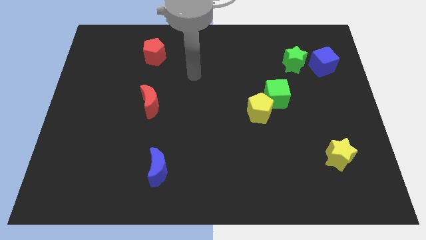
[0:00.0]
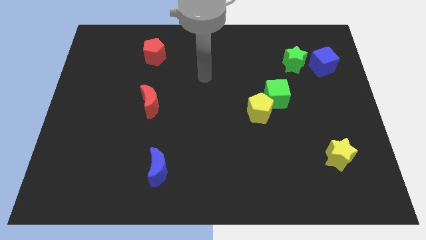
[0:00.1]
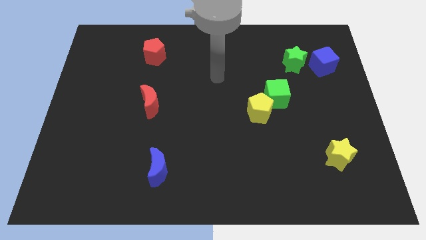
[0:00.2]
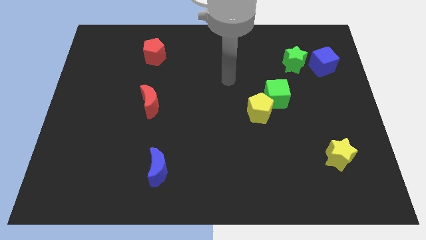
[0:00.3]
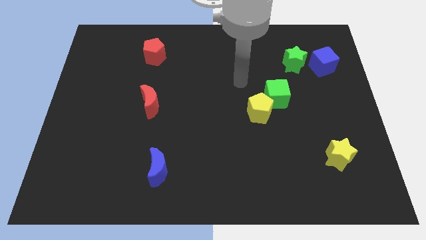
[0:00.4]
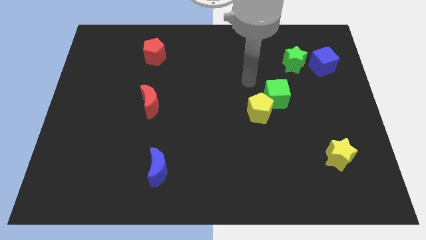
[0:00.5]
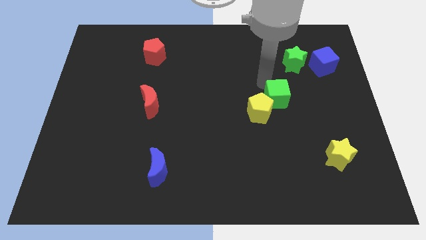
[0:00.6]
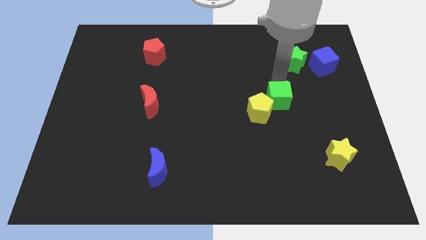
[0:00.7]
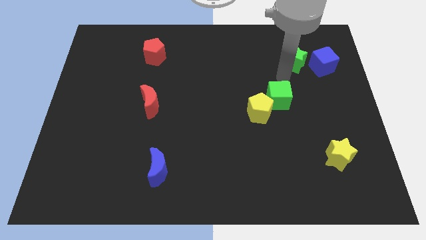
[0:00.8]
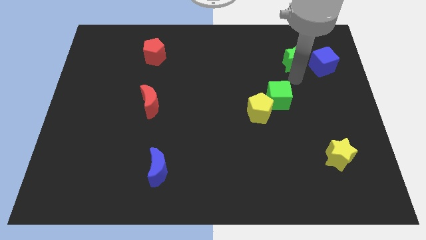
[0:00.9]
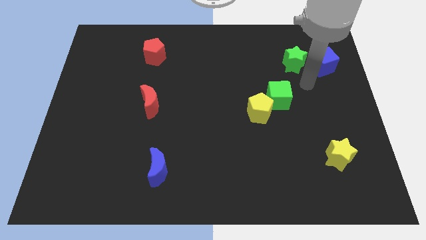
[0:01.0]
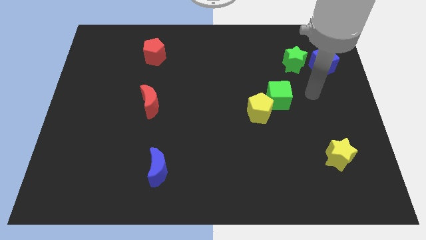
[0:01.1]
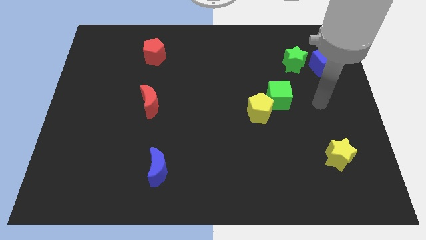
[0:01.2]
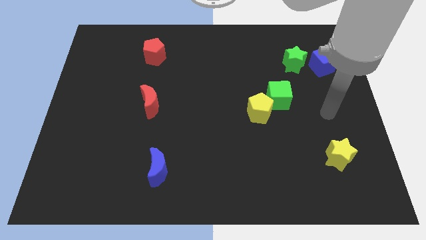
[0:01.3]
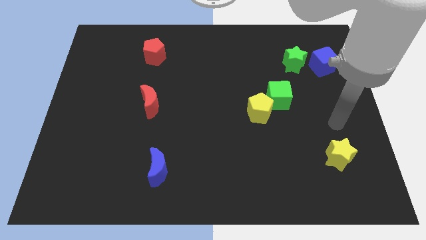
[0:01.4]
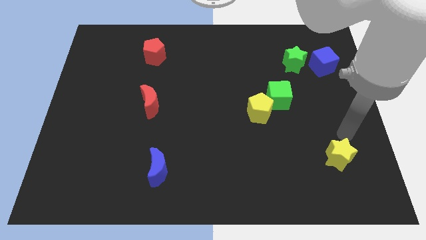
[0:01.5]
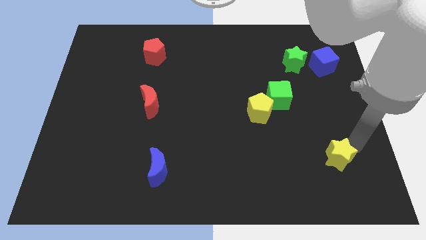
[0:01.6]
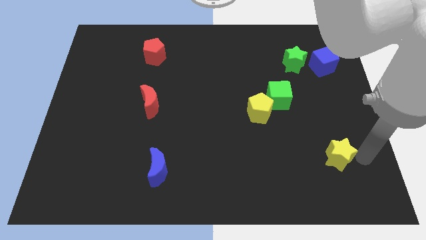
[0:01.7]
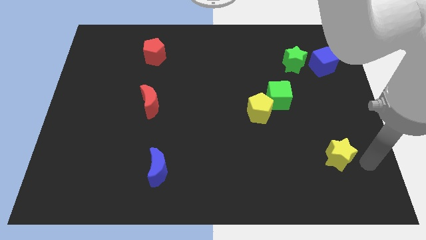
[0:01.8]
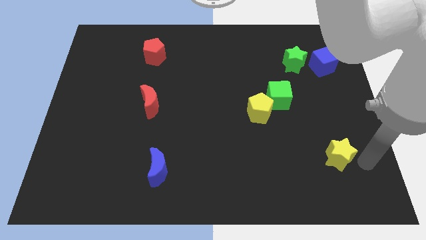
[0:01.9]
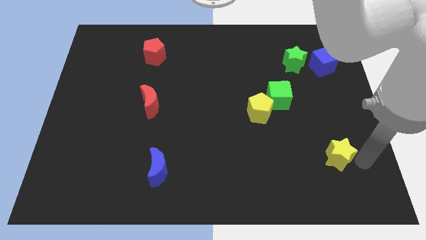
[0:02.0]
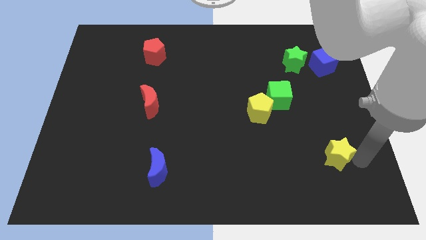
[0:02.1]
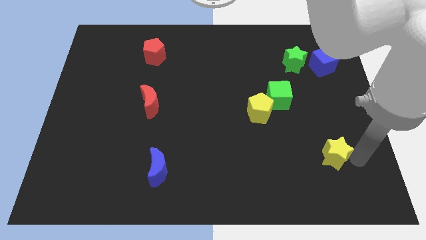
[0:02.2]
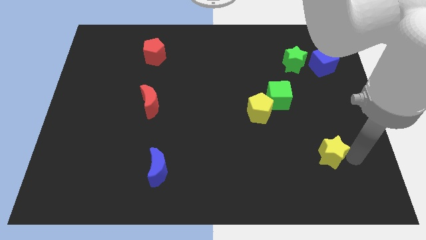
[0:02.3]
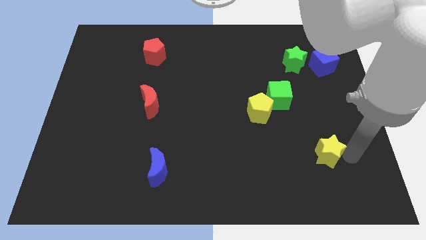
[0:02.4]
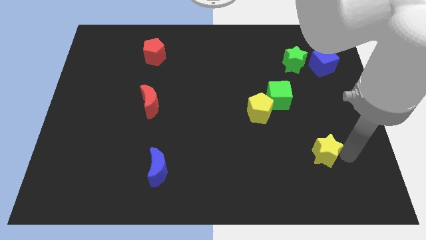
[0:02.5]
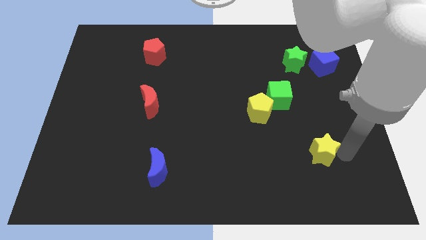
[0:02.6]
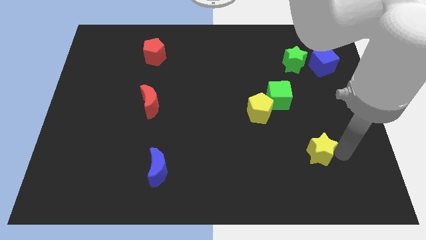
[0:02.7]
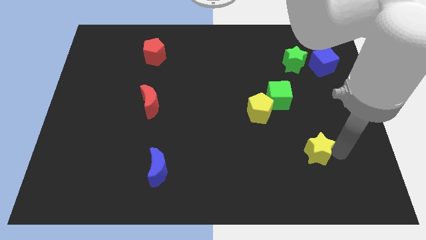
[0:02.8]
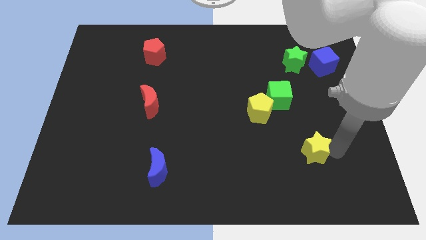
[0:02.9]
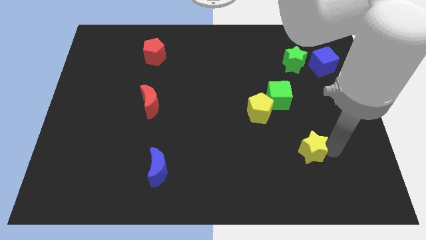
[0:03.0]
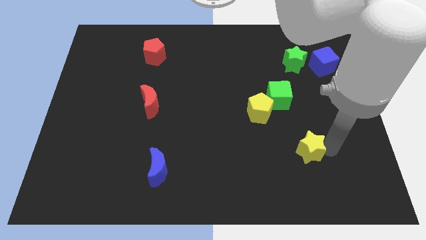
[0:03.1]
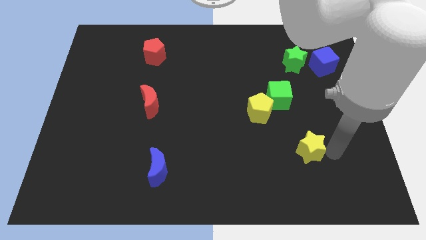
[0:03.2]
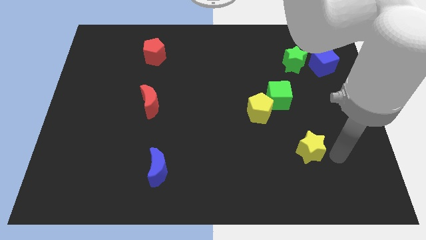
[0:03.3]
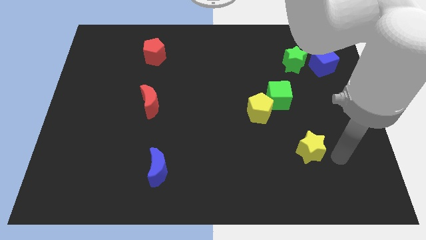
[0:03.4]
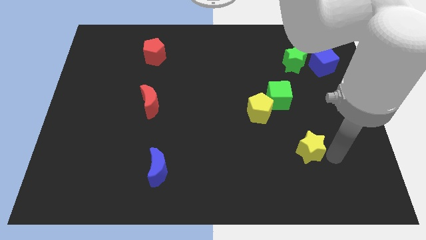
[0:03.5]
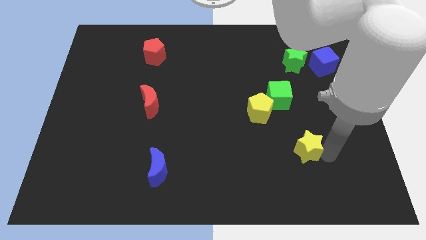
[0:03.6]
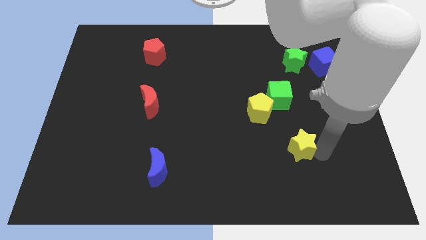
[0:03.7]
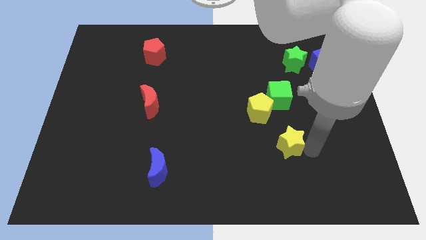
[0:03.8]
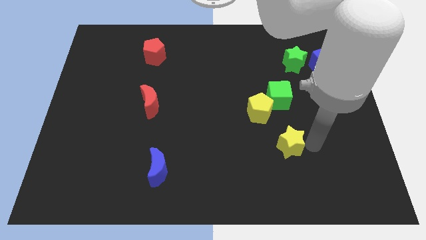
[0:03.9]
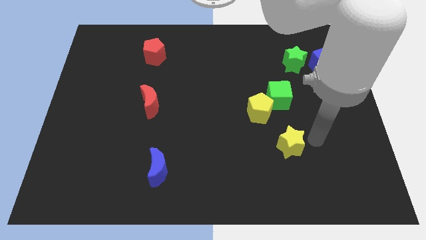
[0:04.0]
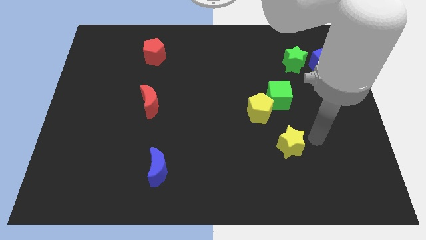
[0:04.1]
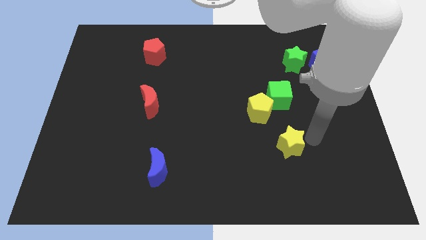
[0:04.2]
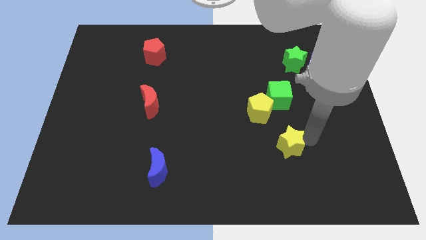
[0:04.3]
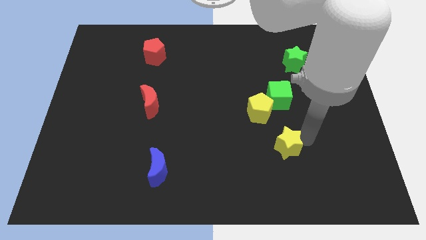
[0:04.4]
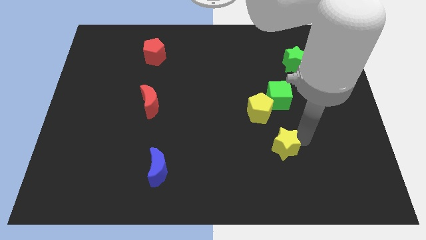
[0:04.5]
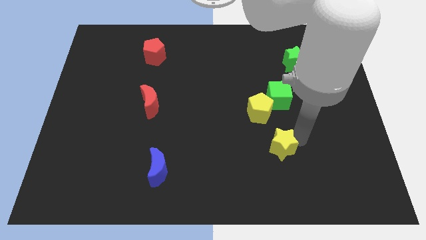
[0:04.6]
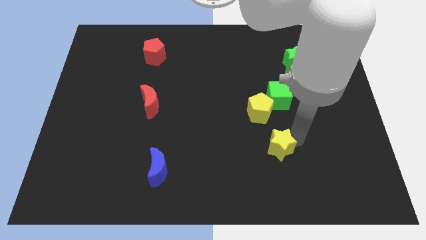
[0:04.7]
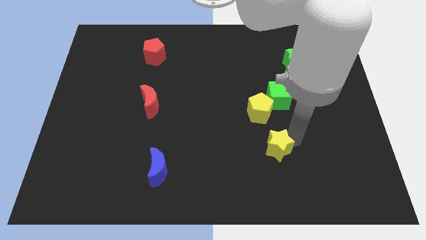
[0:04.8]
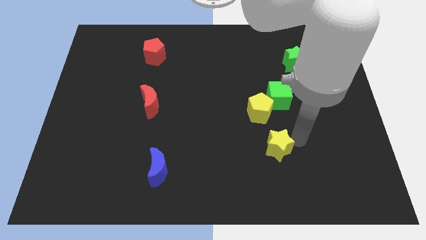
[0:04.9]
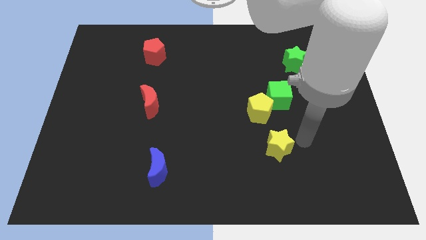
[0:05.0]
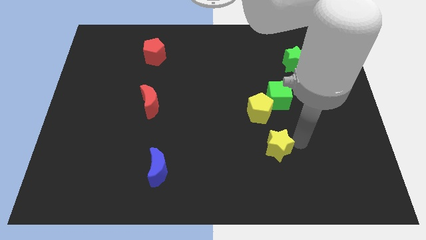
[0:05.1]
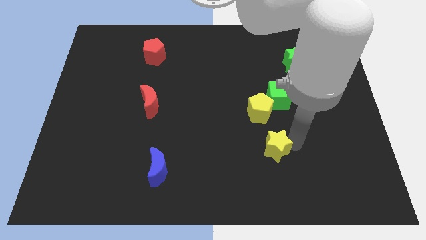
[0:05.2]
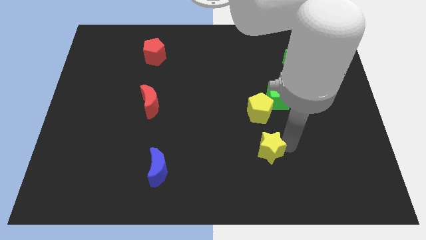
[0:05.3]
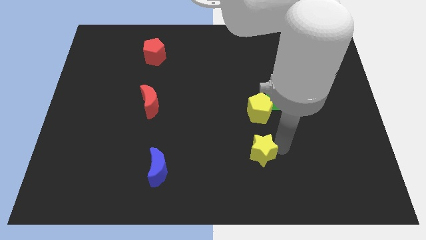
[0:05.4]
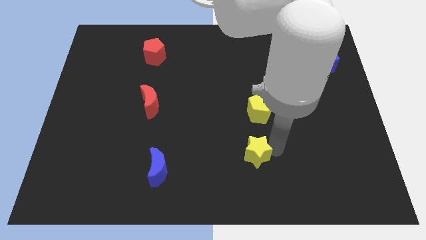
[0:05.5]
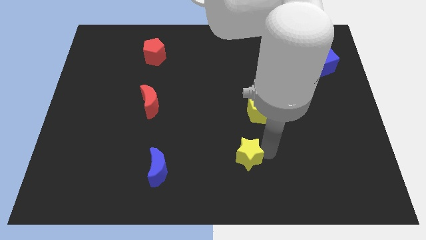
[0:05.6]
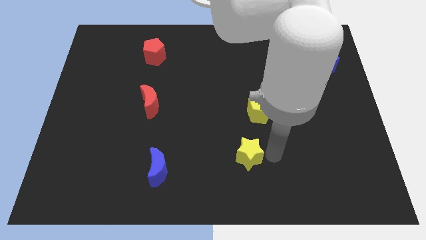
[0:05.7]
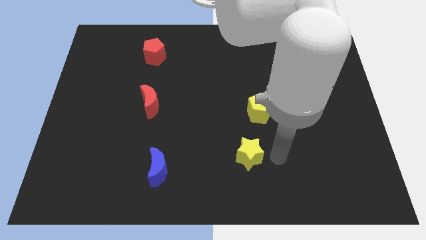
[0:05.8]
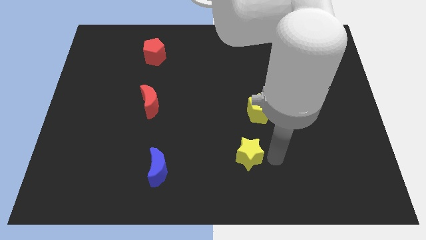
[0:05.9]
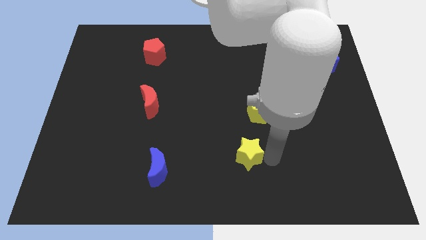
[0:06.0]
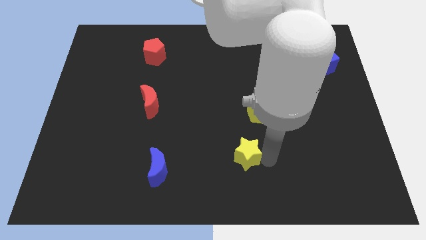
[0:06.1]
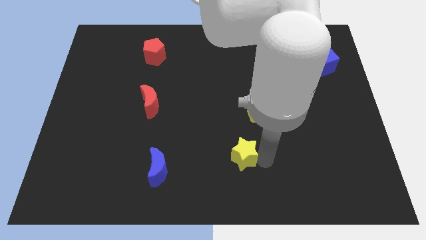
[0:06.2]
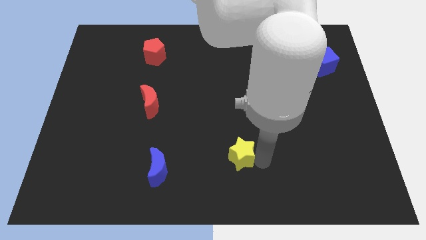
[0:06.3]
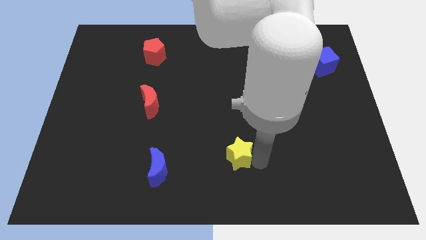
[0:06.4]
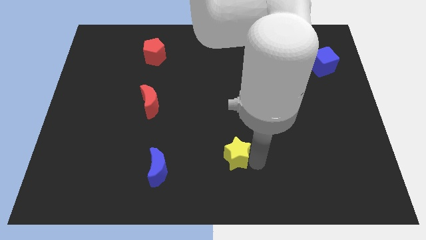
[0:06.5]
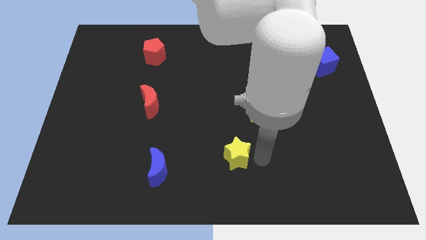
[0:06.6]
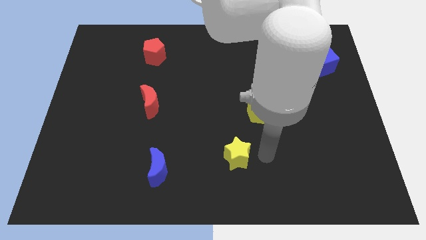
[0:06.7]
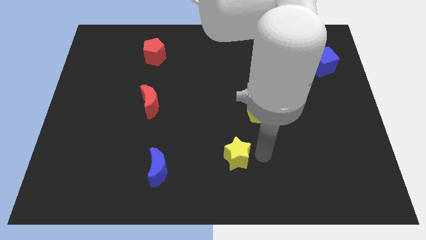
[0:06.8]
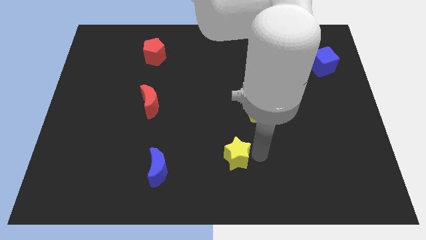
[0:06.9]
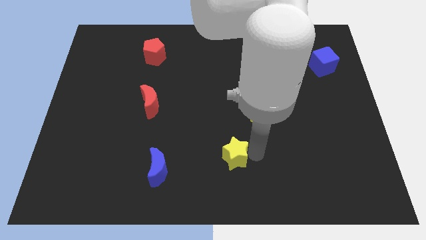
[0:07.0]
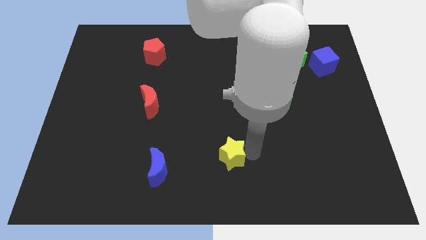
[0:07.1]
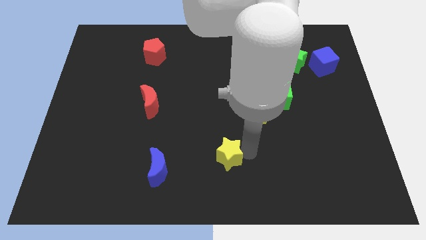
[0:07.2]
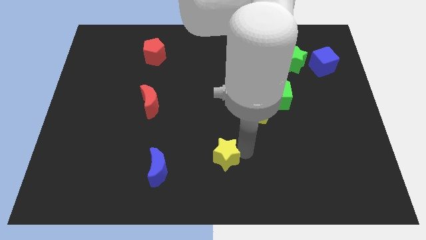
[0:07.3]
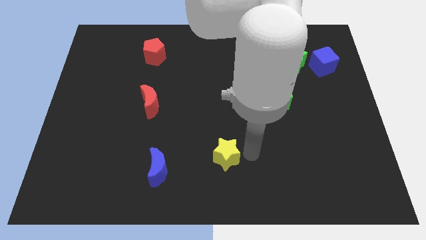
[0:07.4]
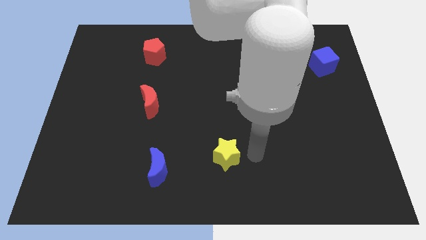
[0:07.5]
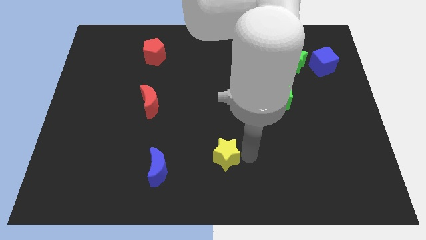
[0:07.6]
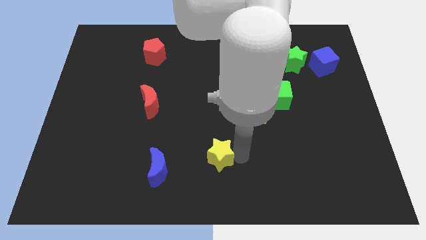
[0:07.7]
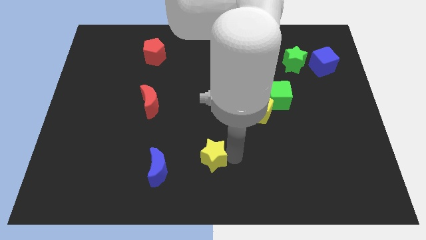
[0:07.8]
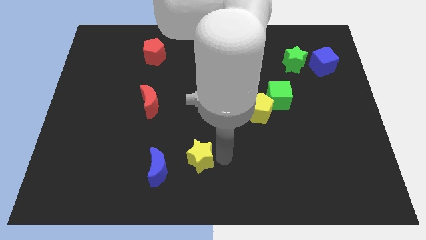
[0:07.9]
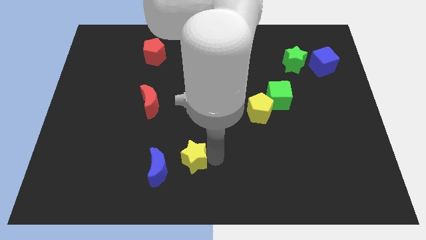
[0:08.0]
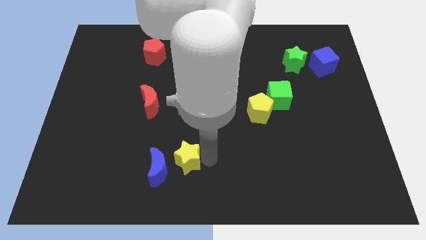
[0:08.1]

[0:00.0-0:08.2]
move the yellow star next to the blue moon
